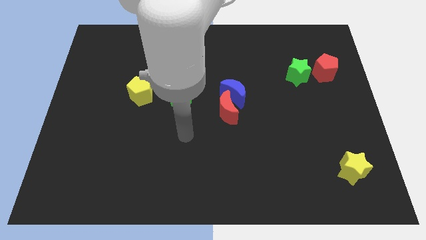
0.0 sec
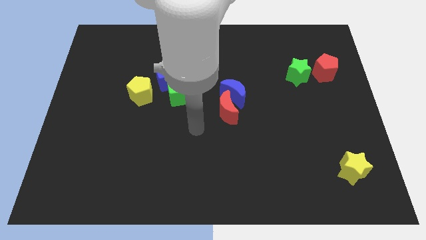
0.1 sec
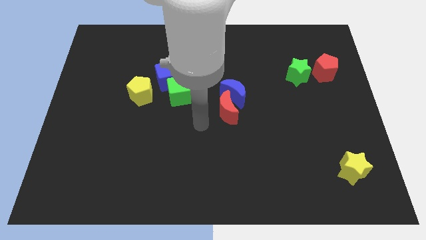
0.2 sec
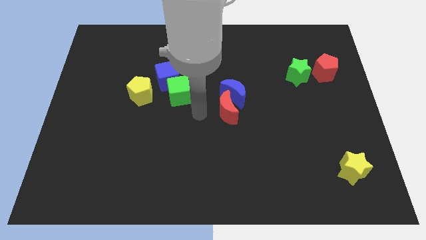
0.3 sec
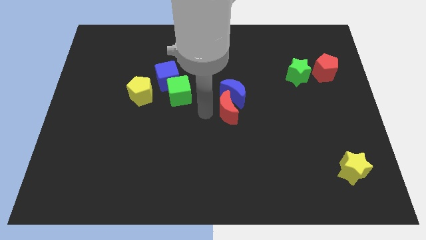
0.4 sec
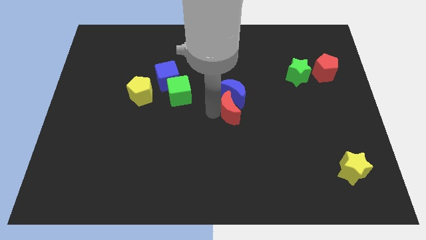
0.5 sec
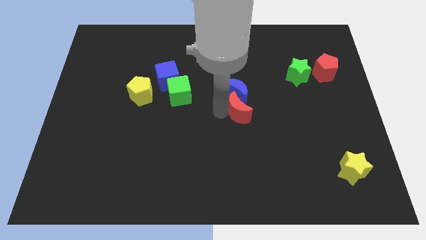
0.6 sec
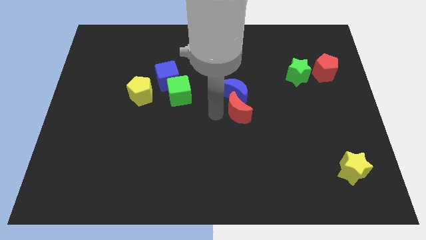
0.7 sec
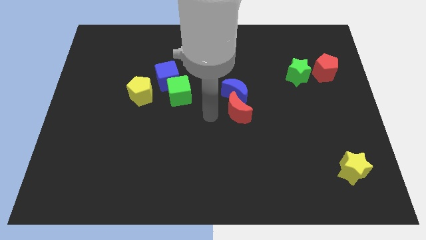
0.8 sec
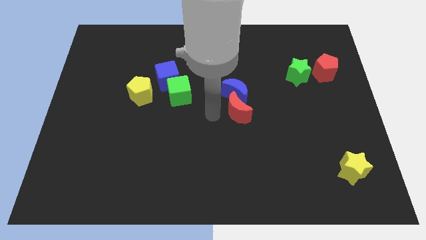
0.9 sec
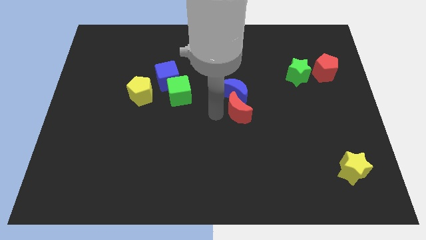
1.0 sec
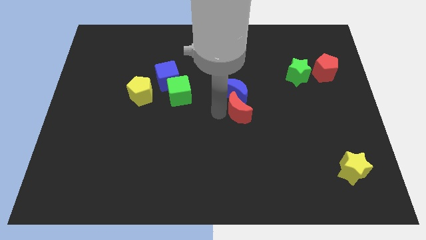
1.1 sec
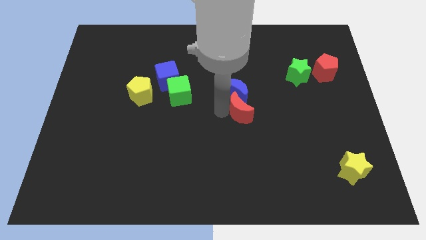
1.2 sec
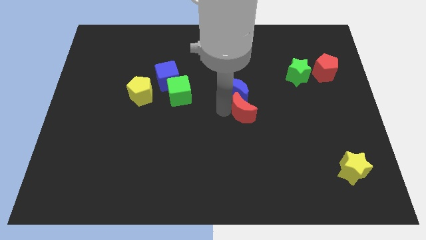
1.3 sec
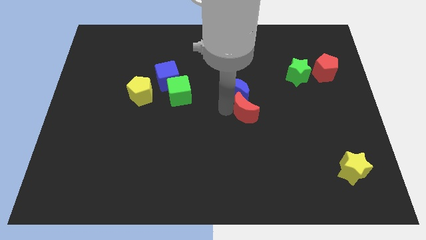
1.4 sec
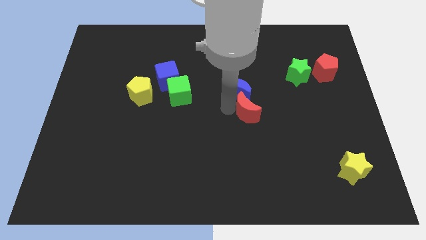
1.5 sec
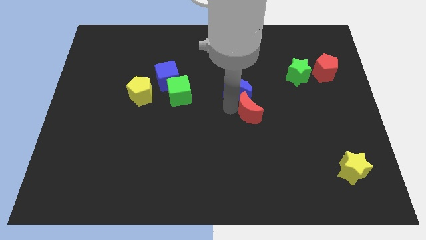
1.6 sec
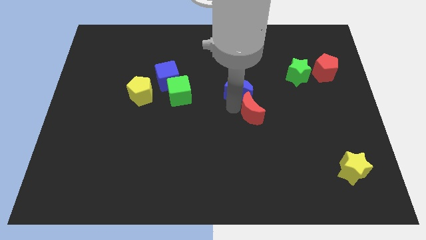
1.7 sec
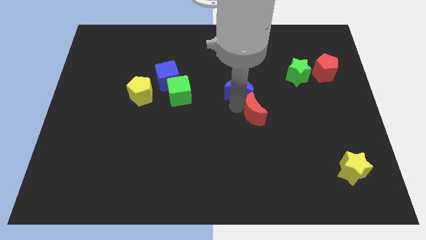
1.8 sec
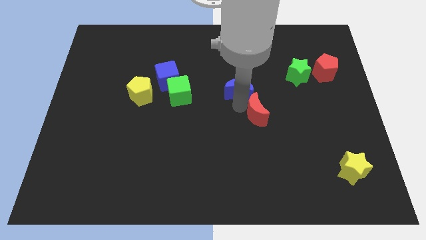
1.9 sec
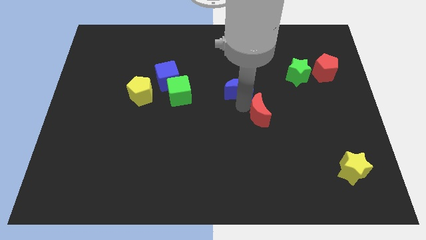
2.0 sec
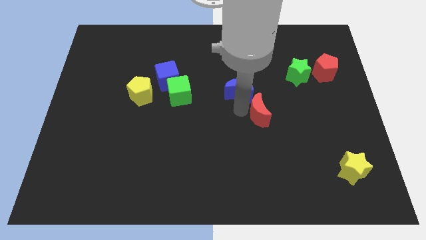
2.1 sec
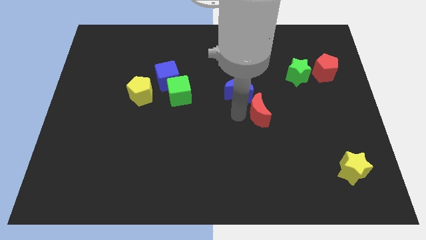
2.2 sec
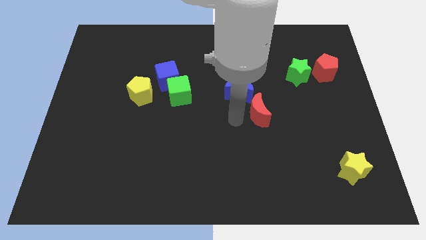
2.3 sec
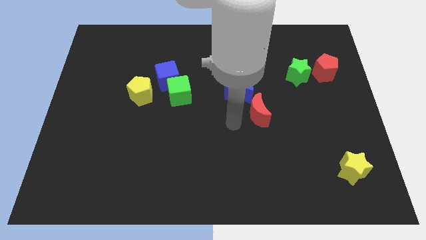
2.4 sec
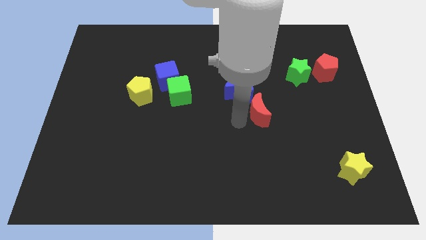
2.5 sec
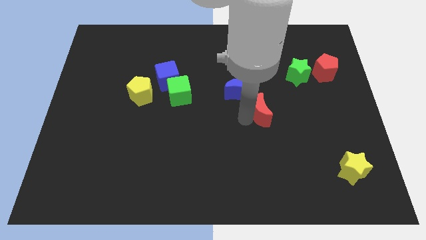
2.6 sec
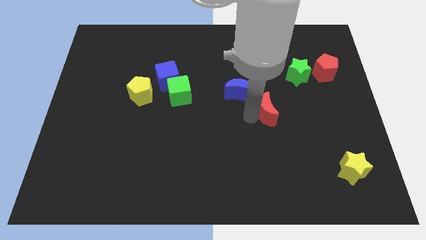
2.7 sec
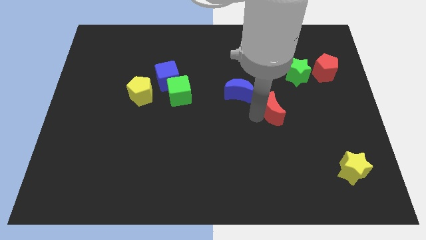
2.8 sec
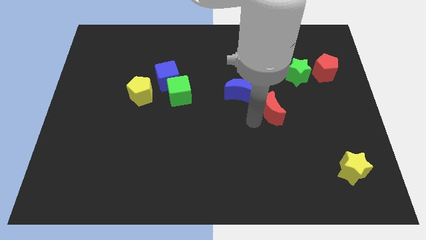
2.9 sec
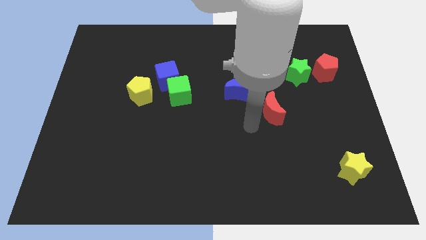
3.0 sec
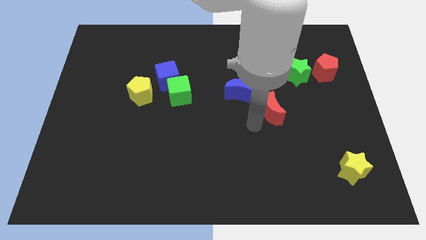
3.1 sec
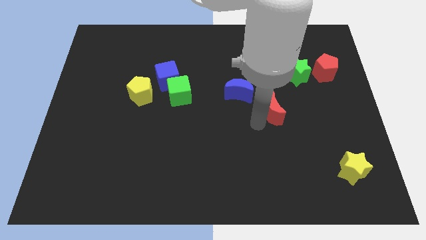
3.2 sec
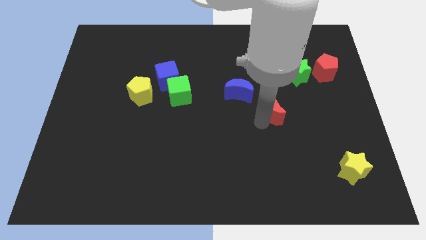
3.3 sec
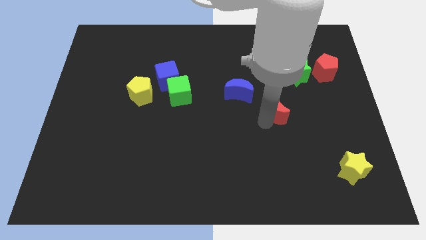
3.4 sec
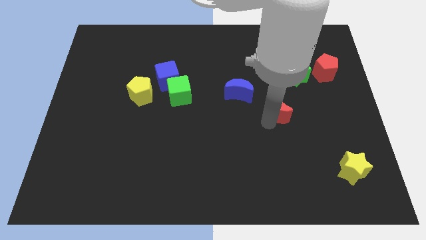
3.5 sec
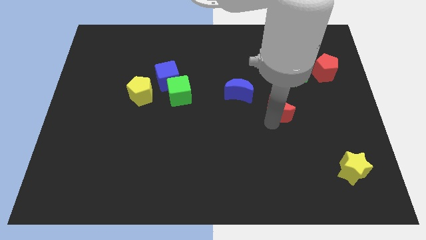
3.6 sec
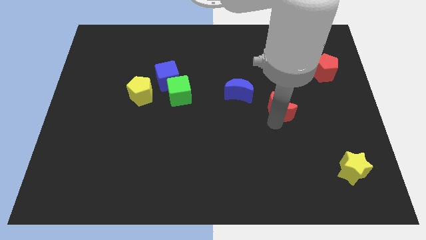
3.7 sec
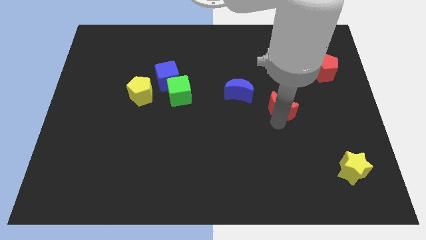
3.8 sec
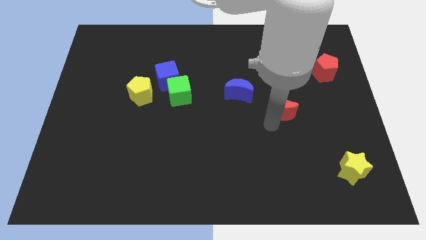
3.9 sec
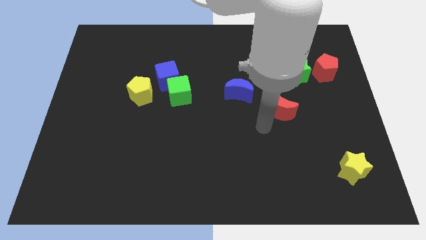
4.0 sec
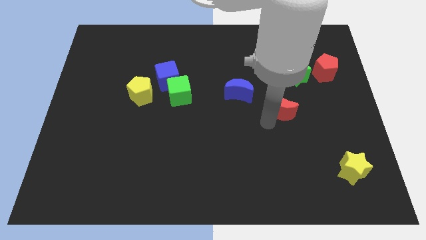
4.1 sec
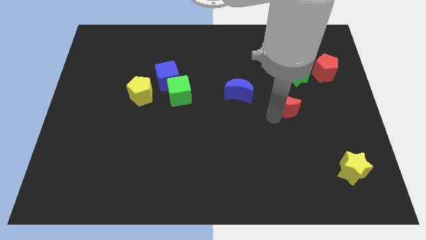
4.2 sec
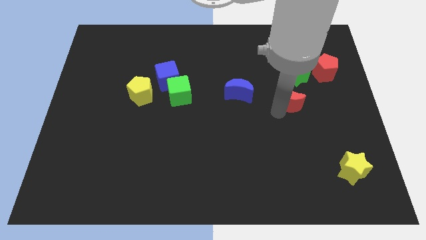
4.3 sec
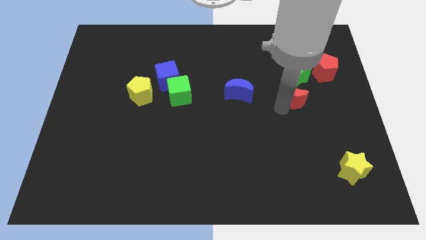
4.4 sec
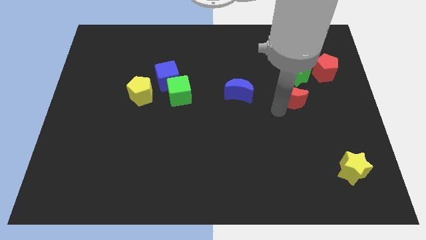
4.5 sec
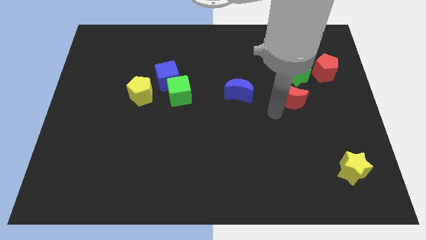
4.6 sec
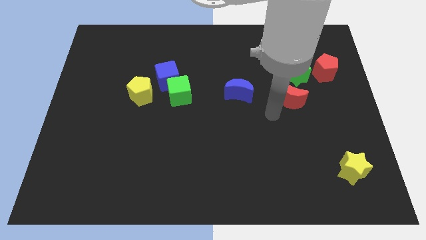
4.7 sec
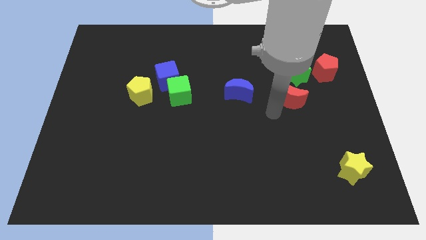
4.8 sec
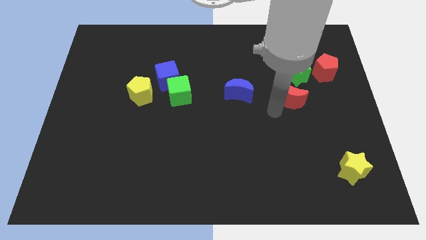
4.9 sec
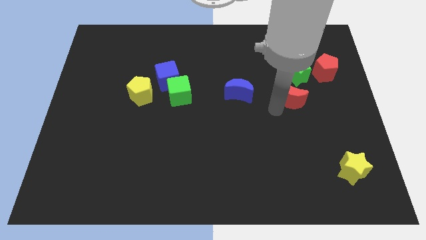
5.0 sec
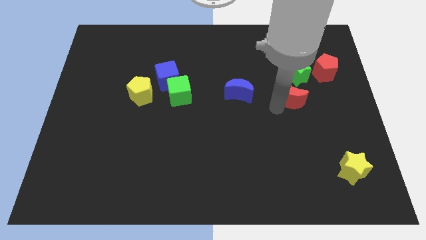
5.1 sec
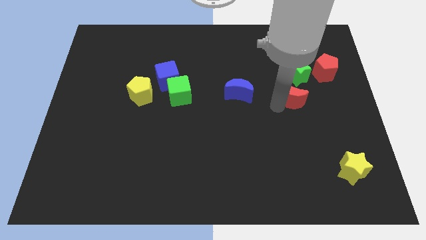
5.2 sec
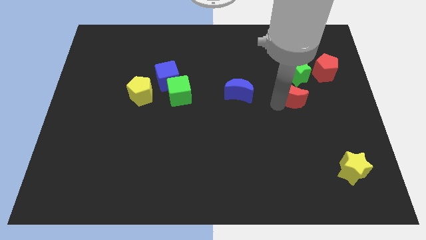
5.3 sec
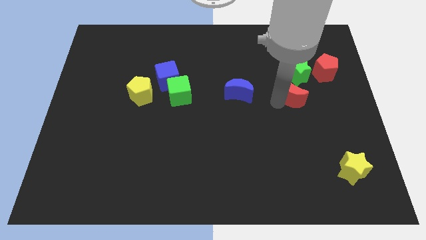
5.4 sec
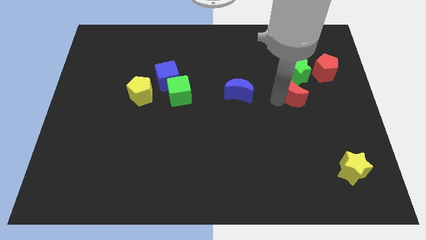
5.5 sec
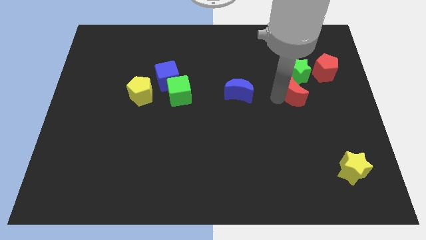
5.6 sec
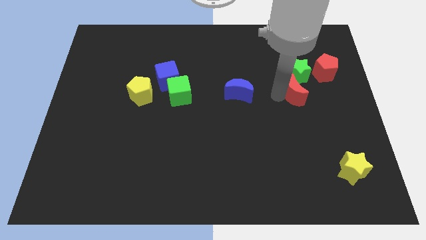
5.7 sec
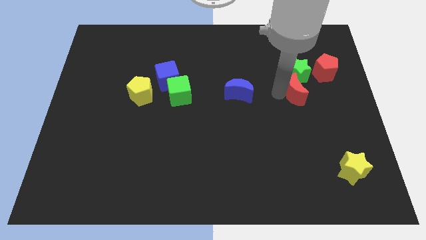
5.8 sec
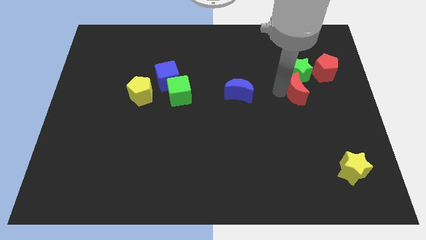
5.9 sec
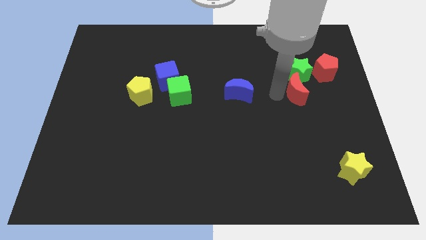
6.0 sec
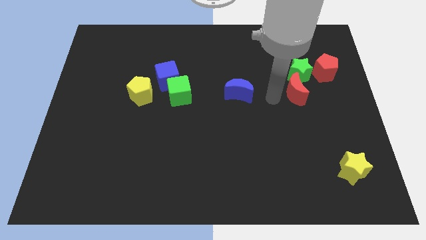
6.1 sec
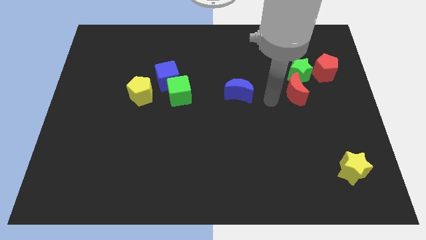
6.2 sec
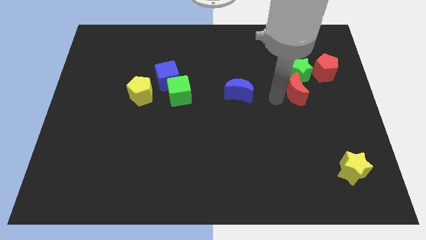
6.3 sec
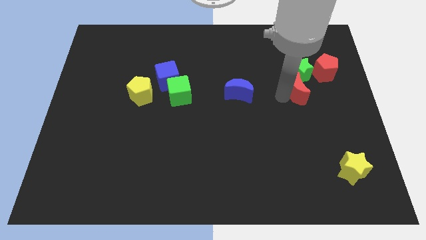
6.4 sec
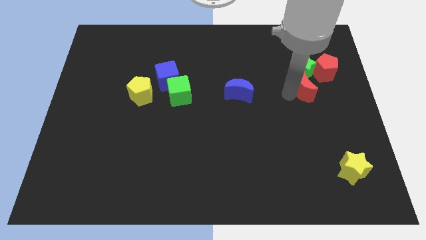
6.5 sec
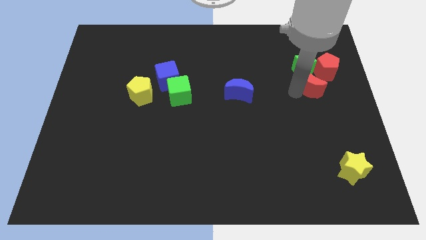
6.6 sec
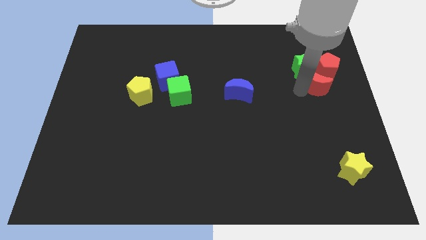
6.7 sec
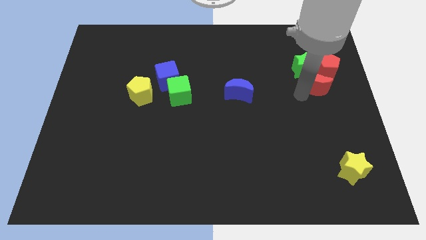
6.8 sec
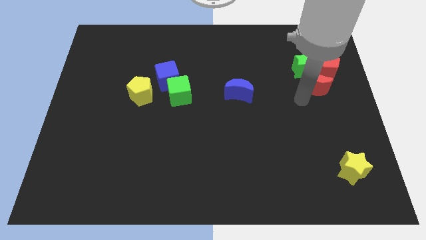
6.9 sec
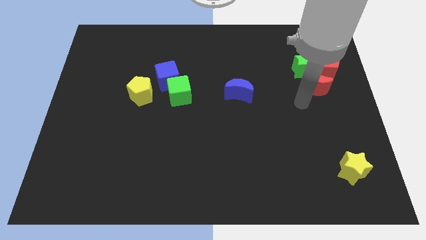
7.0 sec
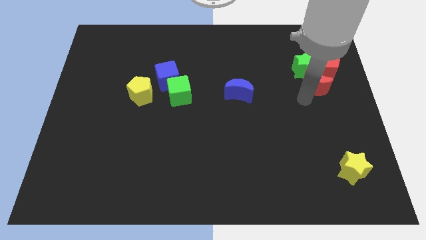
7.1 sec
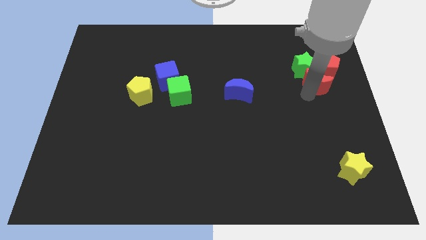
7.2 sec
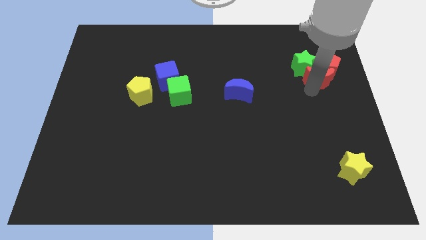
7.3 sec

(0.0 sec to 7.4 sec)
slide the red moon close to the red pentagon
